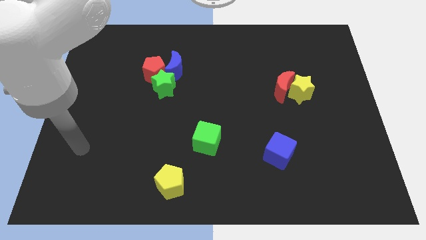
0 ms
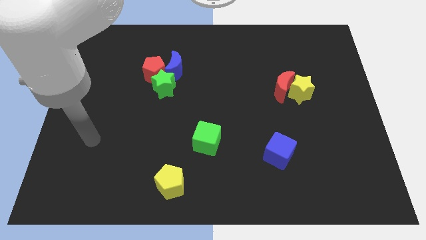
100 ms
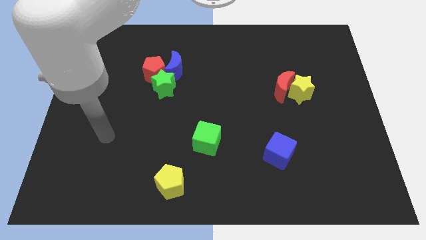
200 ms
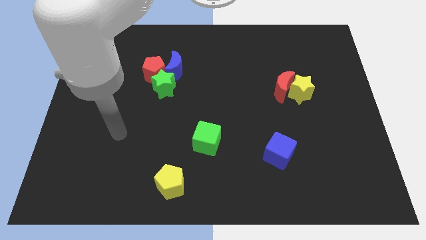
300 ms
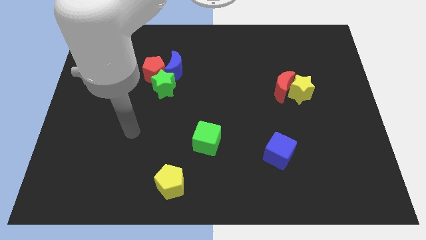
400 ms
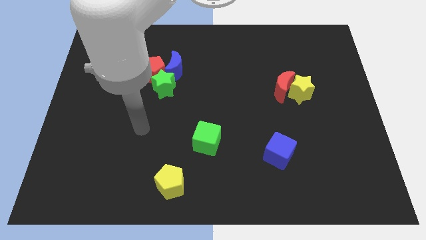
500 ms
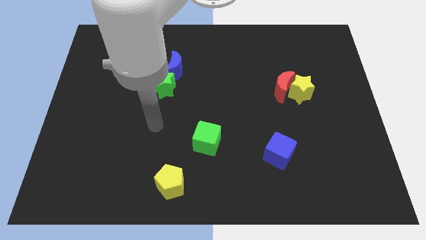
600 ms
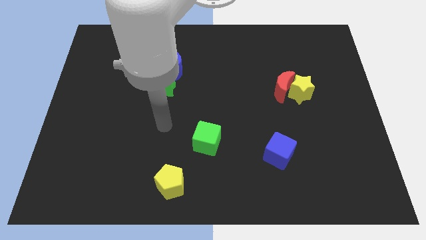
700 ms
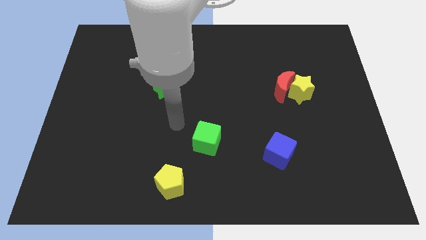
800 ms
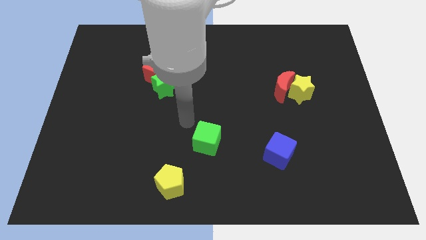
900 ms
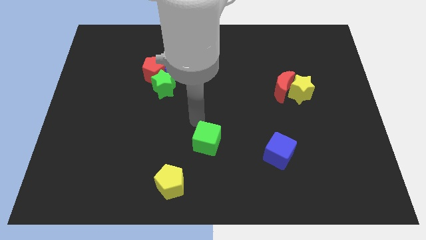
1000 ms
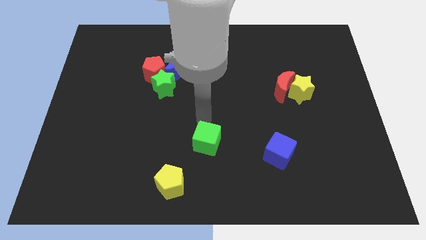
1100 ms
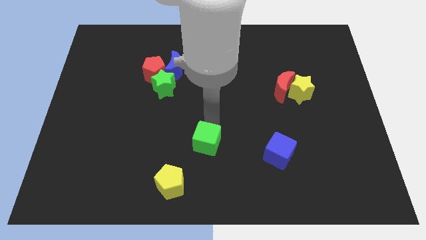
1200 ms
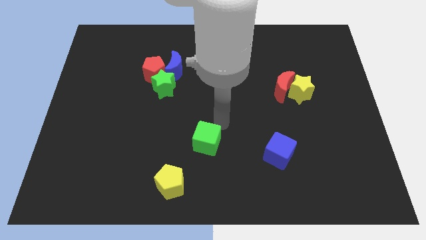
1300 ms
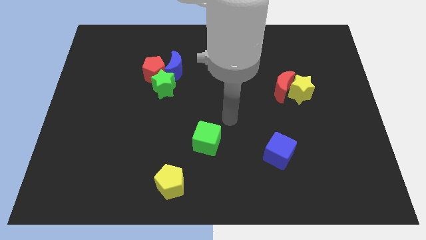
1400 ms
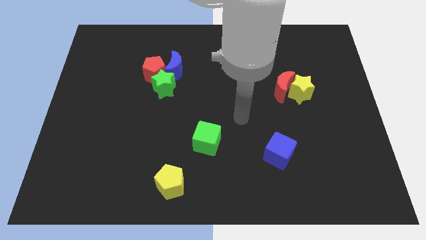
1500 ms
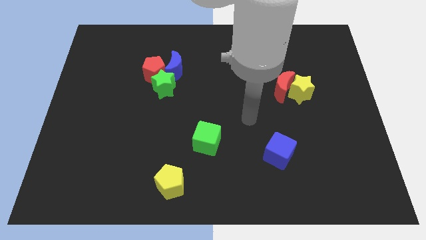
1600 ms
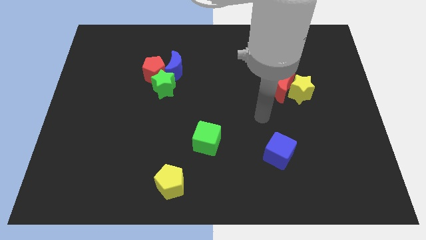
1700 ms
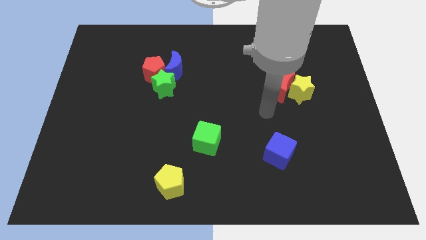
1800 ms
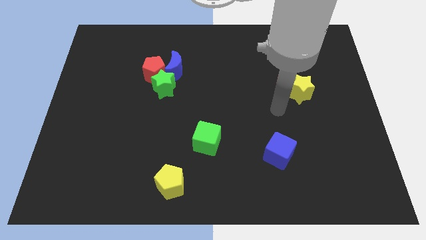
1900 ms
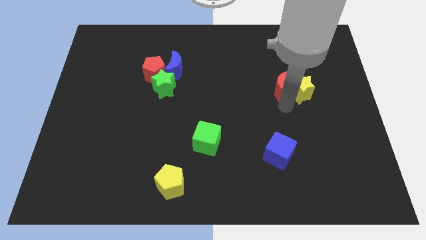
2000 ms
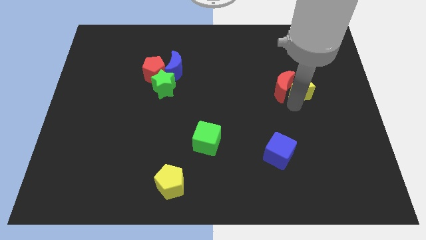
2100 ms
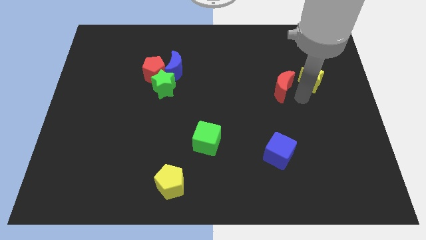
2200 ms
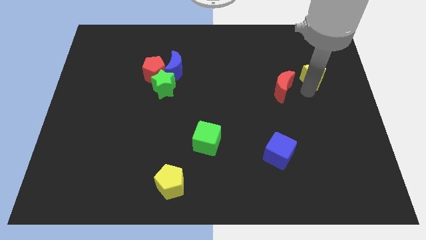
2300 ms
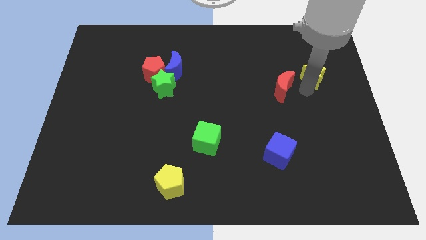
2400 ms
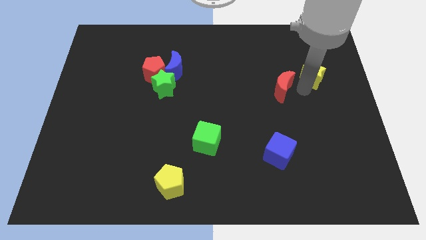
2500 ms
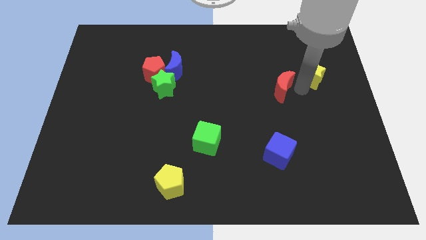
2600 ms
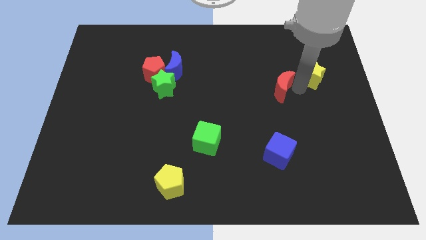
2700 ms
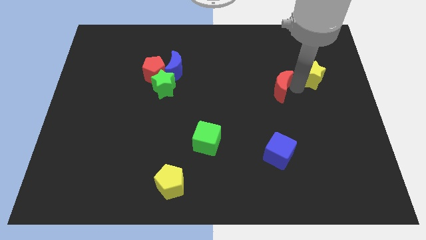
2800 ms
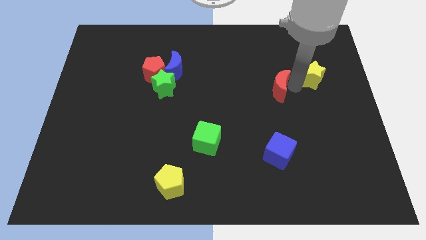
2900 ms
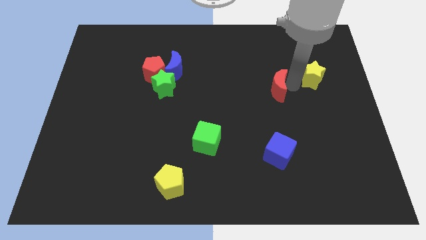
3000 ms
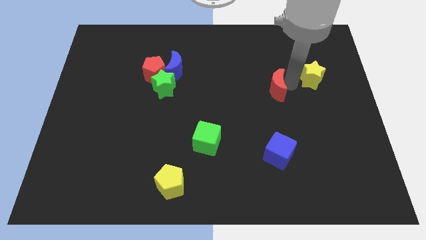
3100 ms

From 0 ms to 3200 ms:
pull the red moon apart from the yellow star

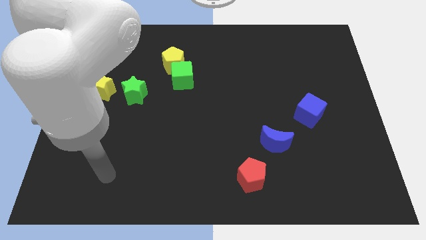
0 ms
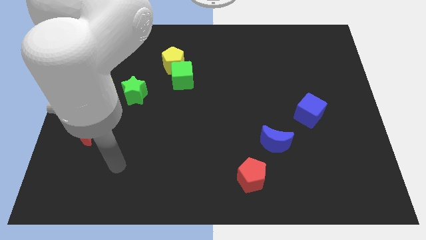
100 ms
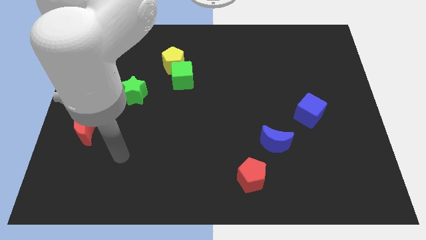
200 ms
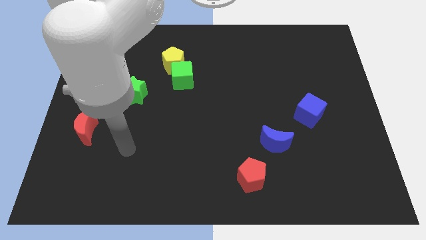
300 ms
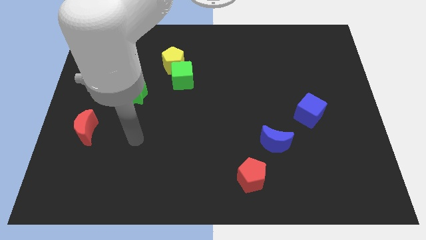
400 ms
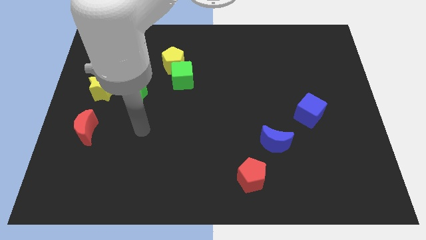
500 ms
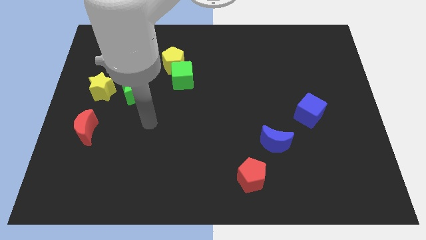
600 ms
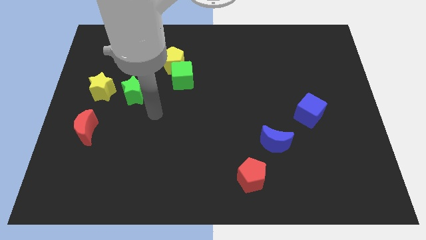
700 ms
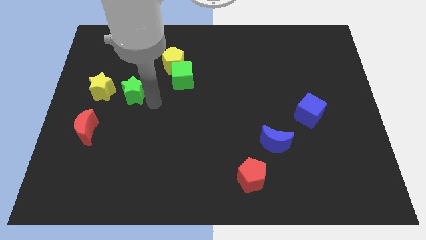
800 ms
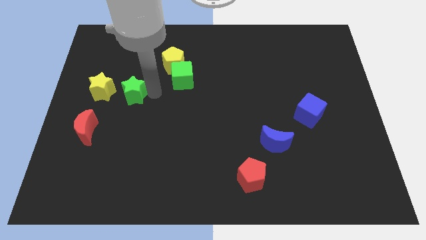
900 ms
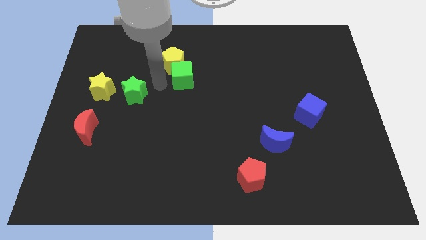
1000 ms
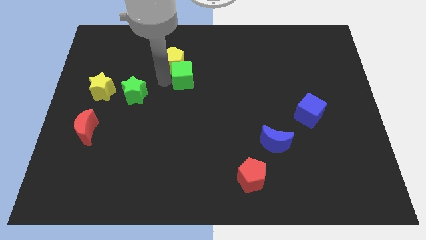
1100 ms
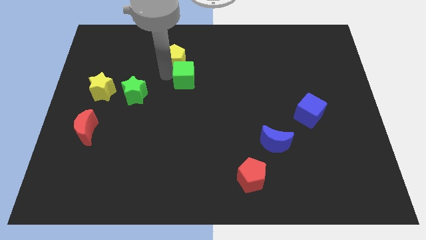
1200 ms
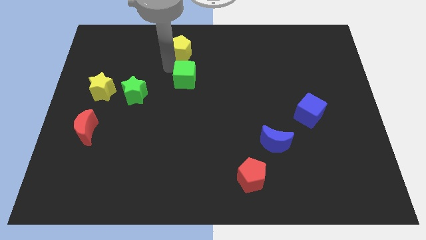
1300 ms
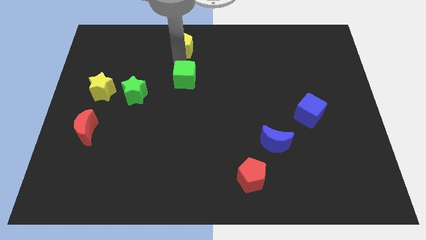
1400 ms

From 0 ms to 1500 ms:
move the green cube away from the yellow pentagon

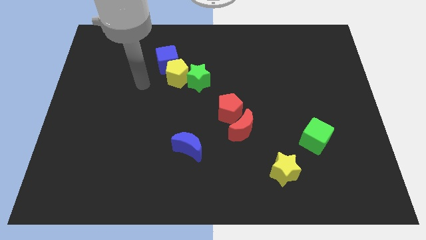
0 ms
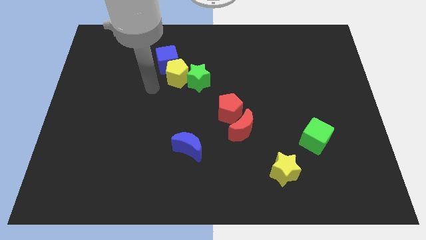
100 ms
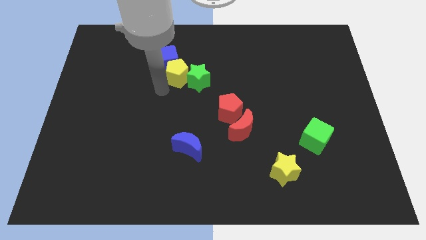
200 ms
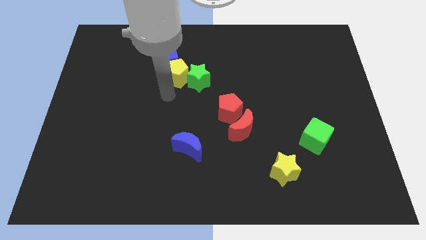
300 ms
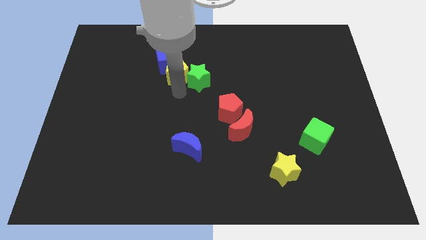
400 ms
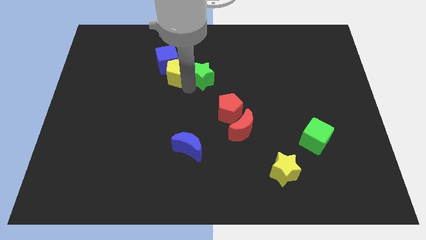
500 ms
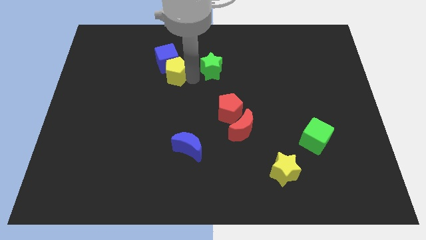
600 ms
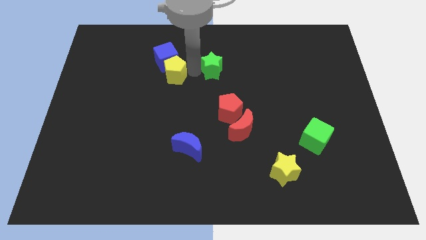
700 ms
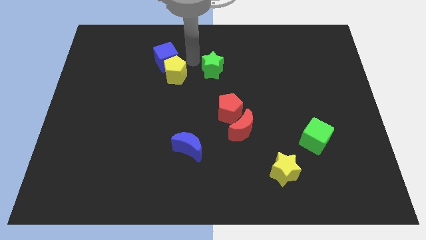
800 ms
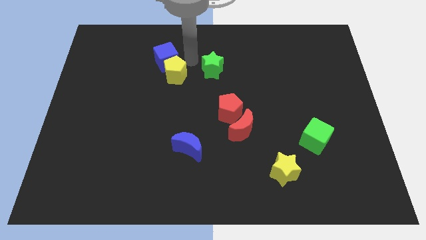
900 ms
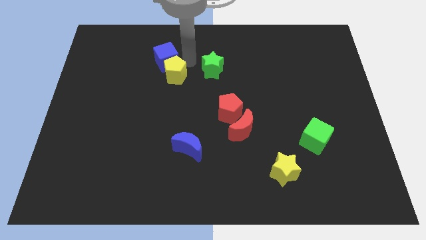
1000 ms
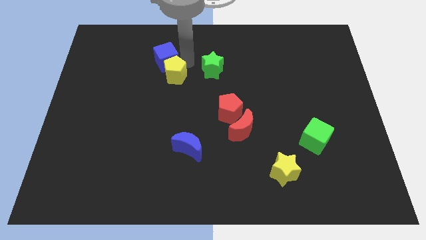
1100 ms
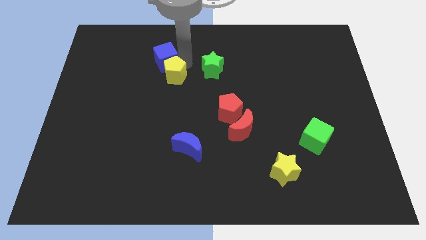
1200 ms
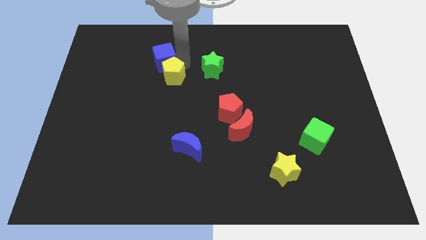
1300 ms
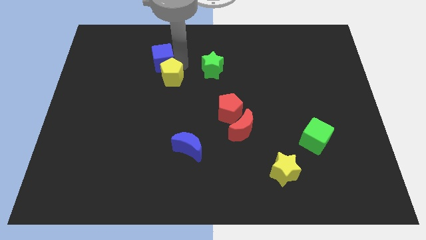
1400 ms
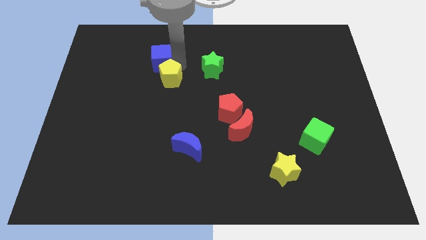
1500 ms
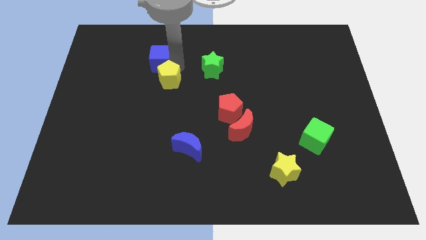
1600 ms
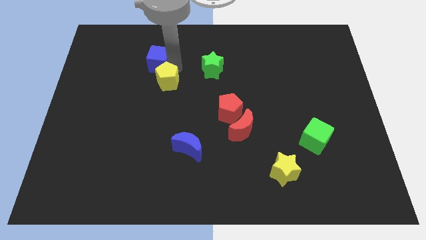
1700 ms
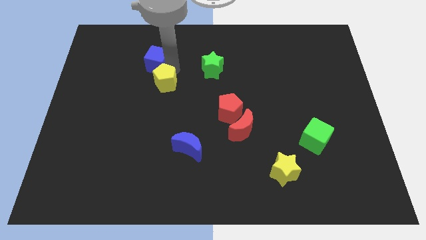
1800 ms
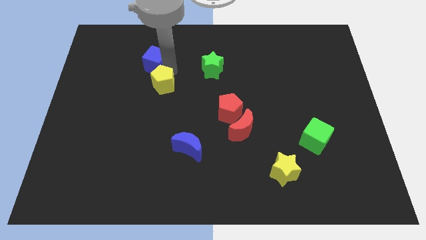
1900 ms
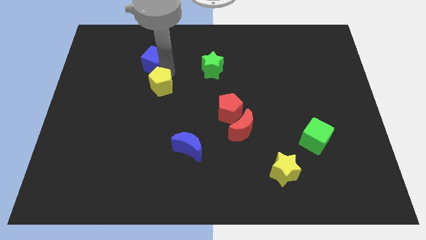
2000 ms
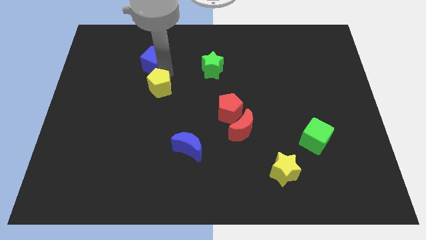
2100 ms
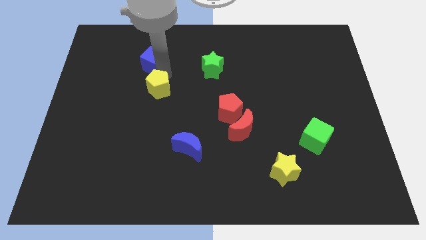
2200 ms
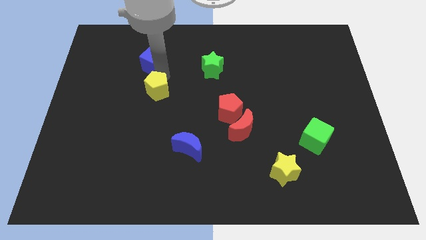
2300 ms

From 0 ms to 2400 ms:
pull the yellow pentagon apart from the blue cube and green star

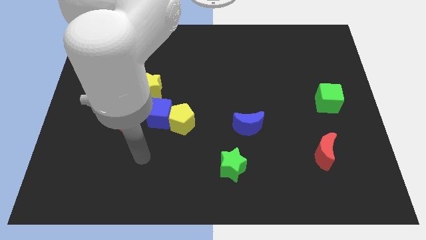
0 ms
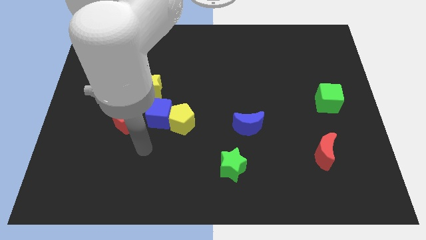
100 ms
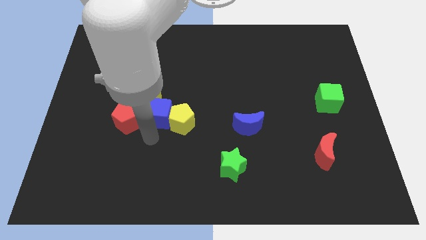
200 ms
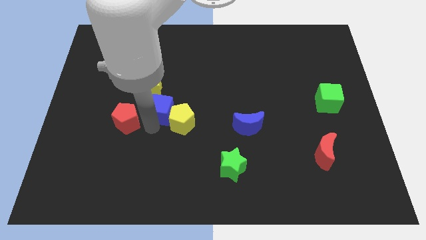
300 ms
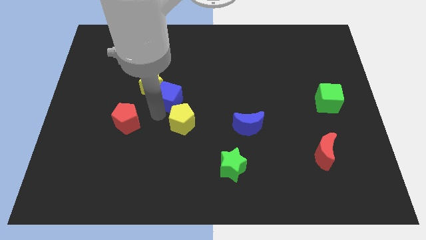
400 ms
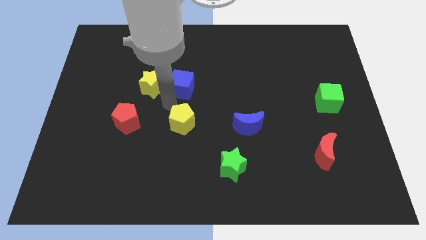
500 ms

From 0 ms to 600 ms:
separate the yellow pentagon from the blue cube

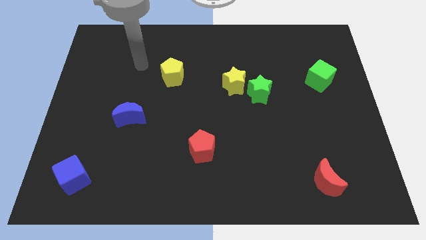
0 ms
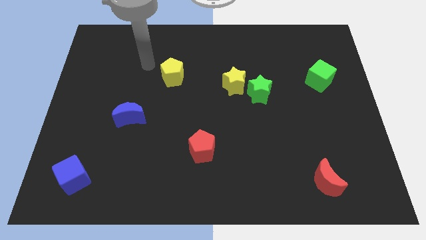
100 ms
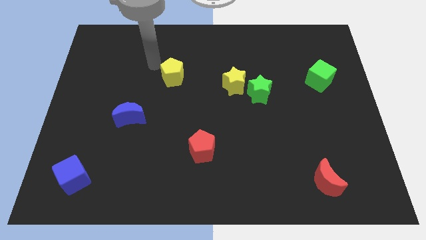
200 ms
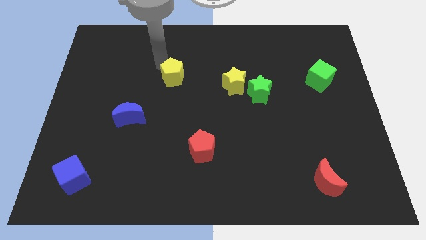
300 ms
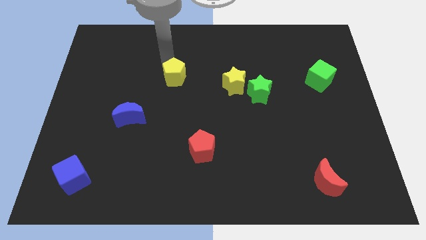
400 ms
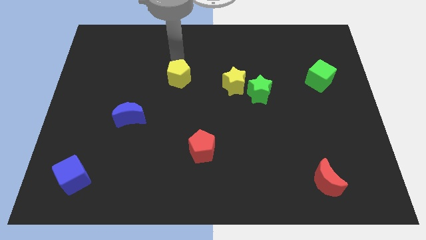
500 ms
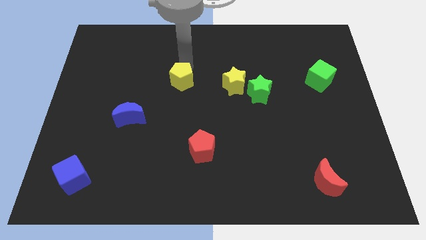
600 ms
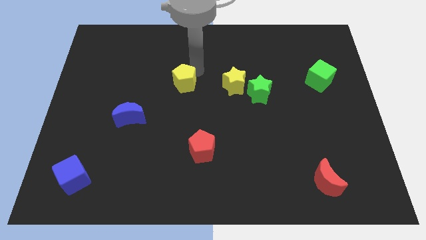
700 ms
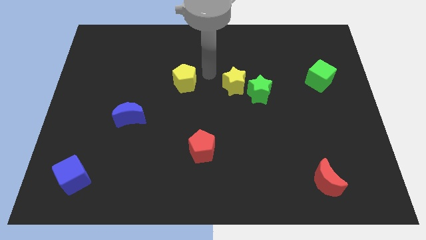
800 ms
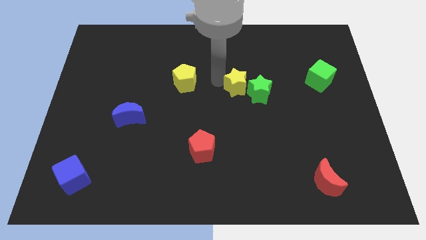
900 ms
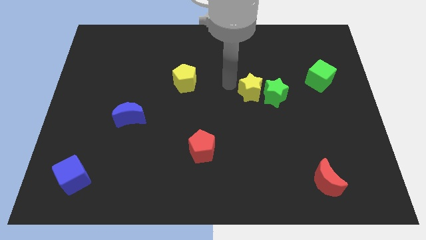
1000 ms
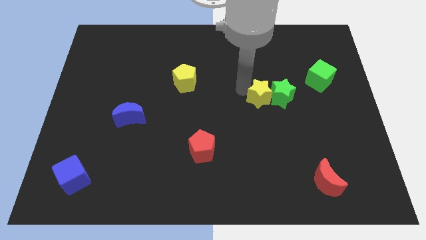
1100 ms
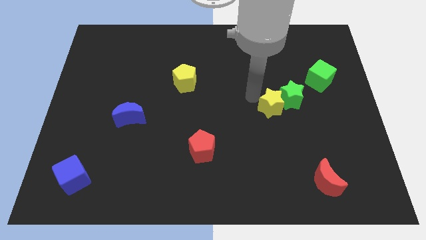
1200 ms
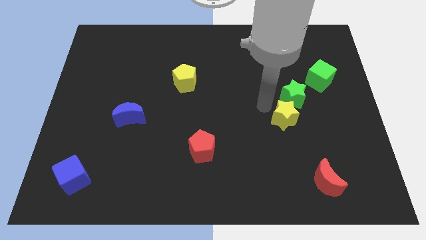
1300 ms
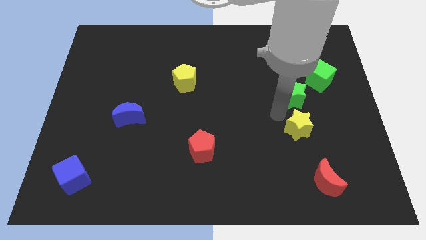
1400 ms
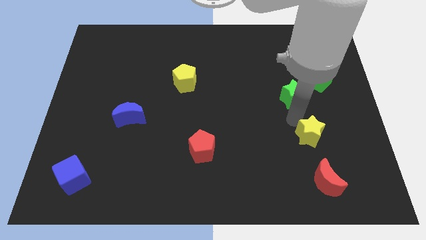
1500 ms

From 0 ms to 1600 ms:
pull the green star apart from the yellow star

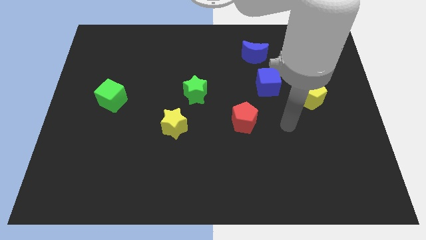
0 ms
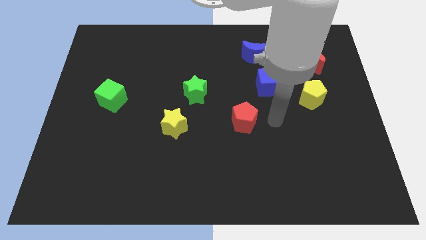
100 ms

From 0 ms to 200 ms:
move the green star away from the yellow star
